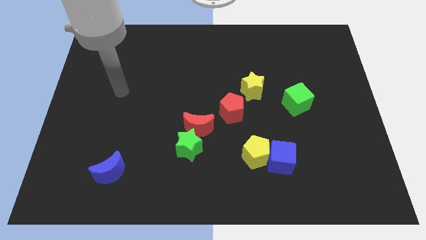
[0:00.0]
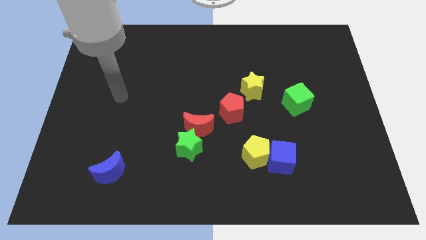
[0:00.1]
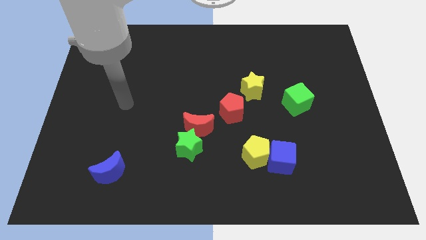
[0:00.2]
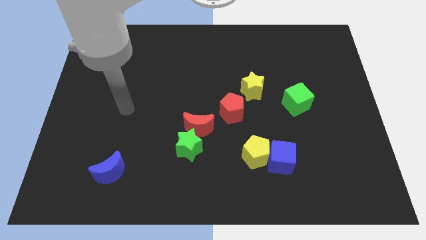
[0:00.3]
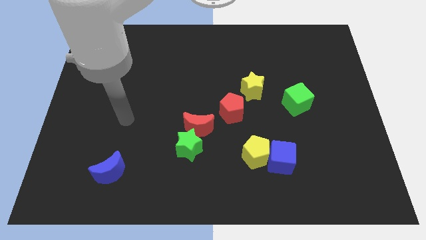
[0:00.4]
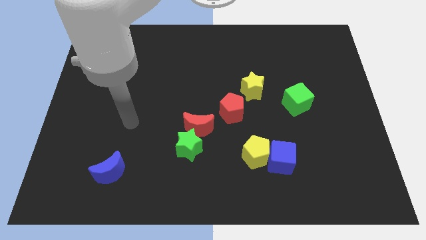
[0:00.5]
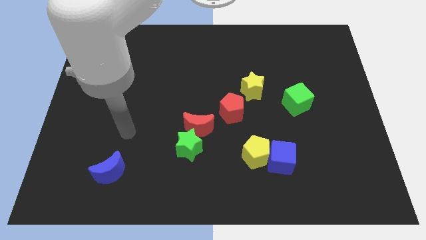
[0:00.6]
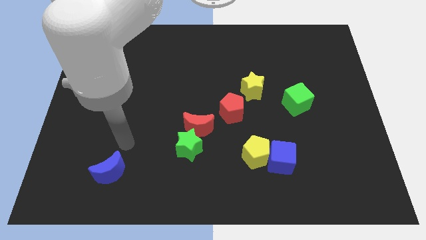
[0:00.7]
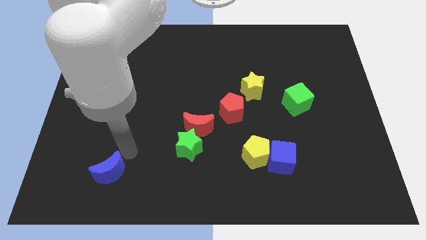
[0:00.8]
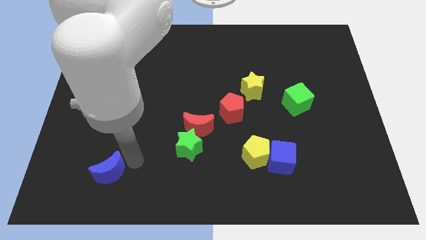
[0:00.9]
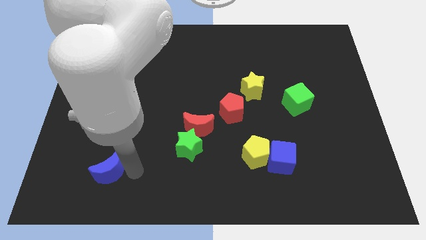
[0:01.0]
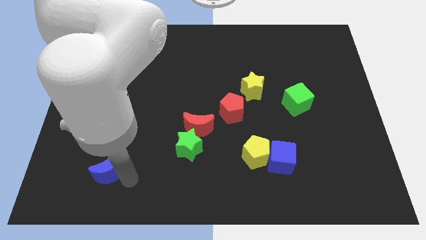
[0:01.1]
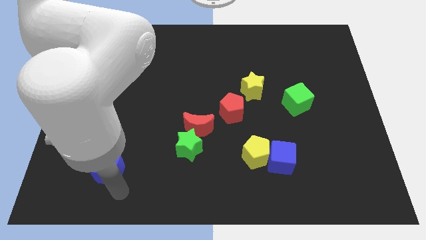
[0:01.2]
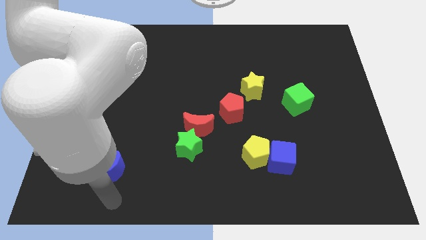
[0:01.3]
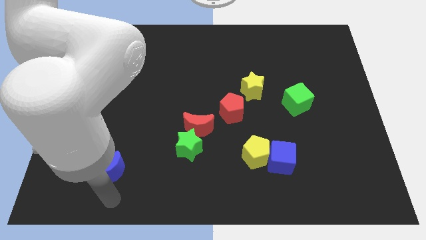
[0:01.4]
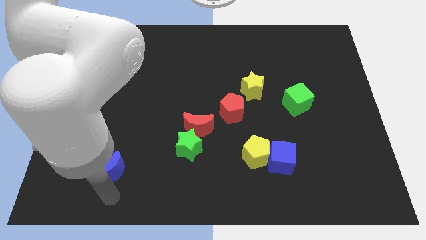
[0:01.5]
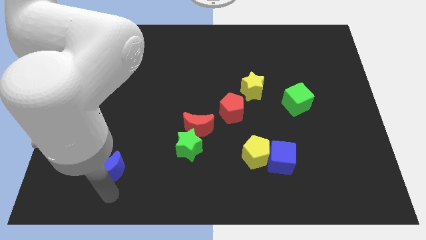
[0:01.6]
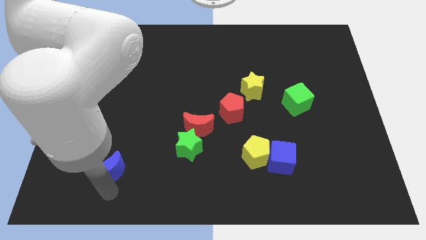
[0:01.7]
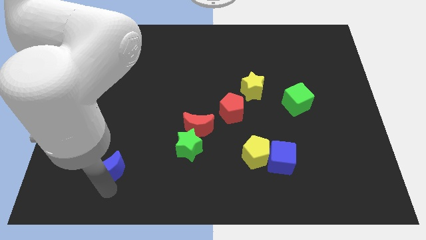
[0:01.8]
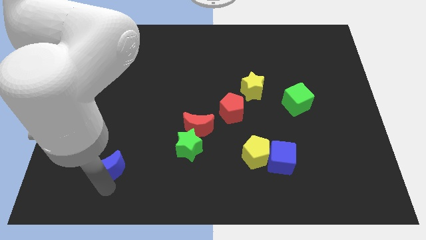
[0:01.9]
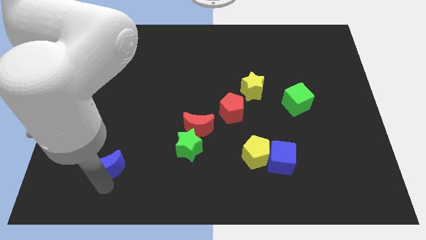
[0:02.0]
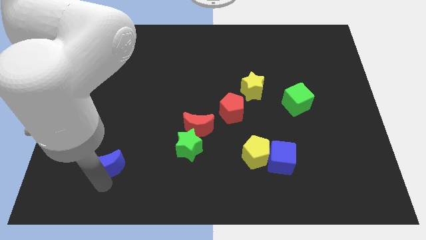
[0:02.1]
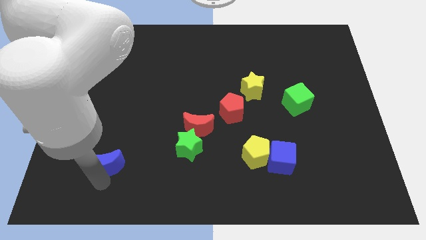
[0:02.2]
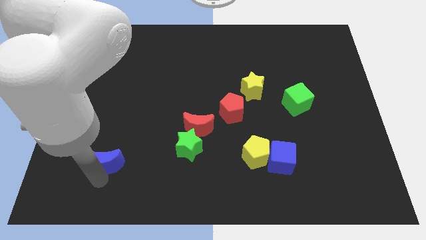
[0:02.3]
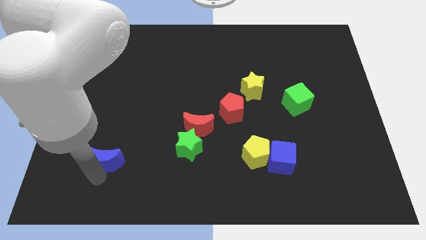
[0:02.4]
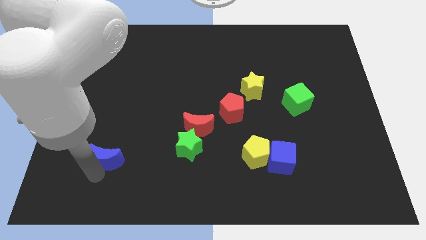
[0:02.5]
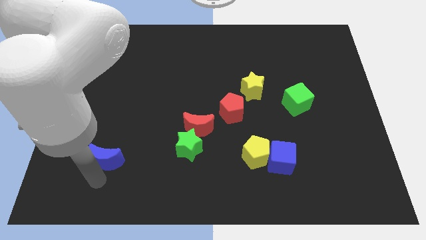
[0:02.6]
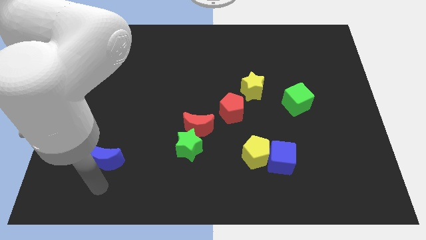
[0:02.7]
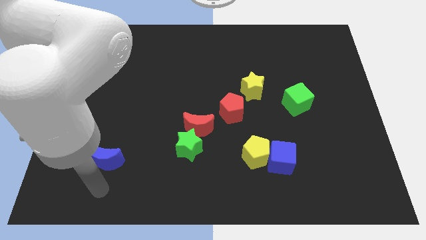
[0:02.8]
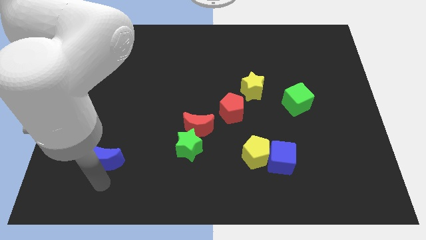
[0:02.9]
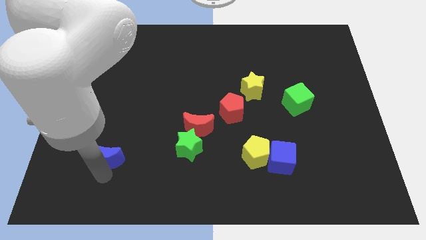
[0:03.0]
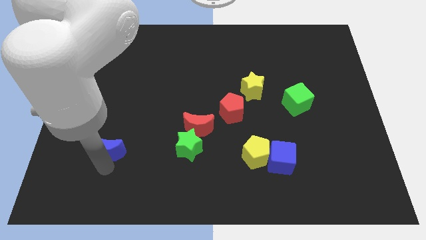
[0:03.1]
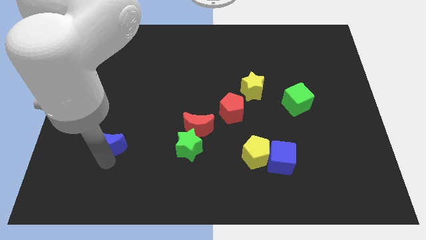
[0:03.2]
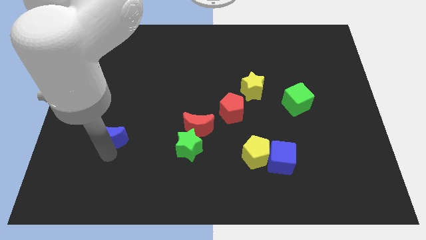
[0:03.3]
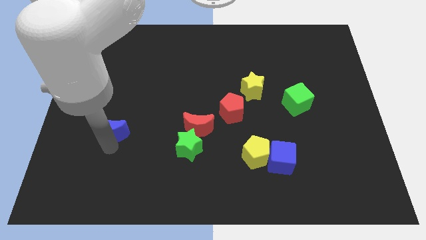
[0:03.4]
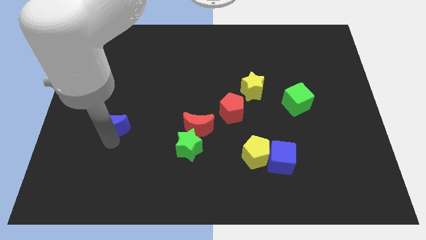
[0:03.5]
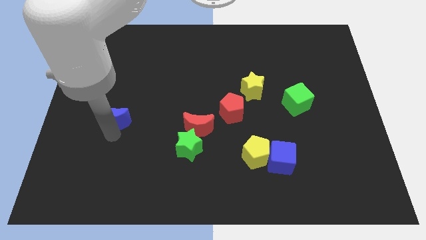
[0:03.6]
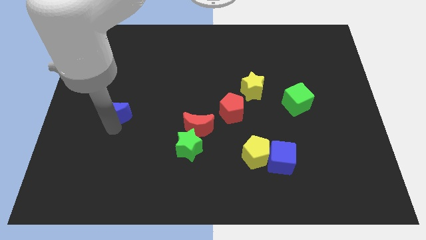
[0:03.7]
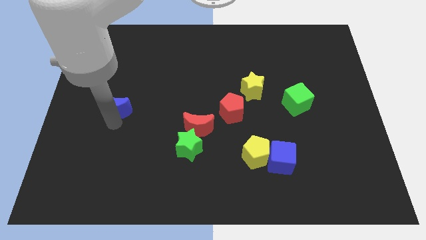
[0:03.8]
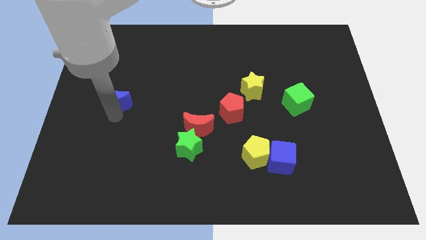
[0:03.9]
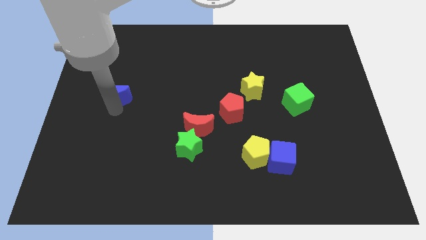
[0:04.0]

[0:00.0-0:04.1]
push the blue moon upwards

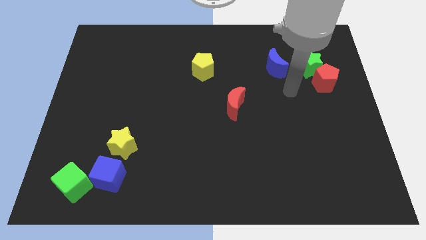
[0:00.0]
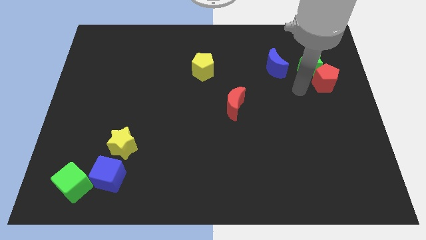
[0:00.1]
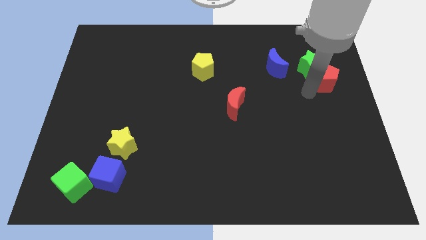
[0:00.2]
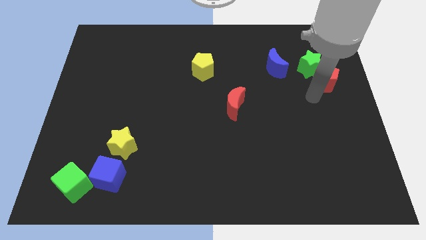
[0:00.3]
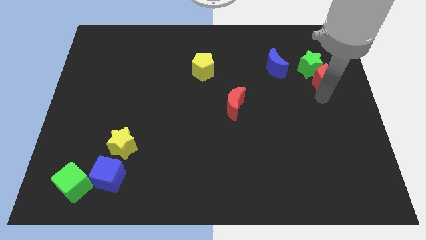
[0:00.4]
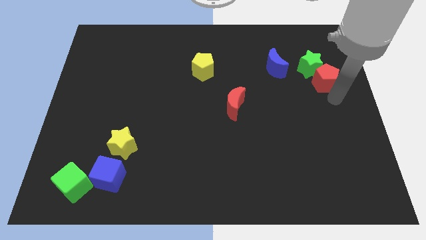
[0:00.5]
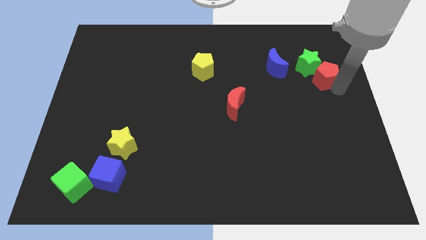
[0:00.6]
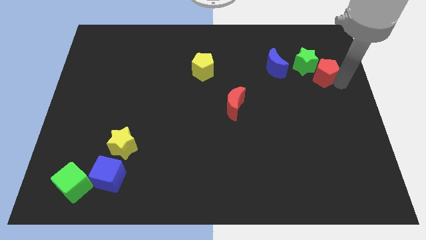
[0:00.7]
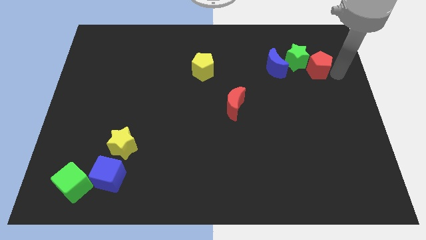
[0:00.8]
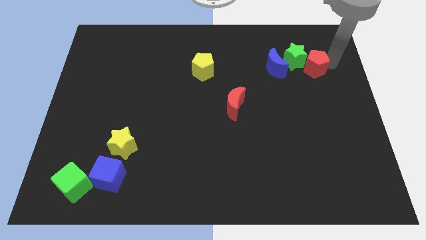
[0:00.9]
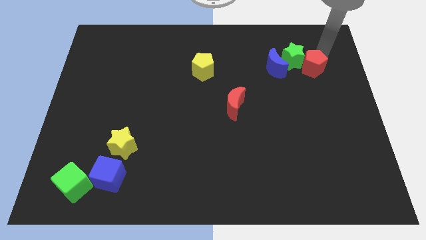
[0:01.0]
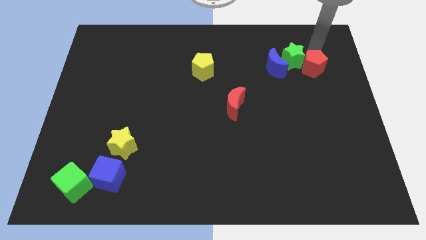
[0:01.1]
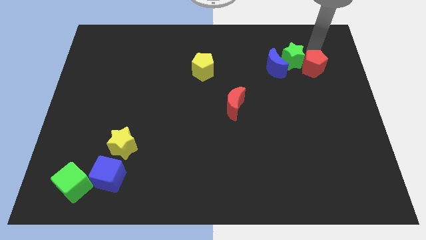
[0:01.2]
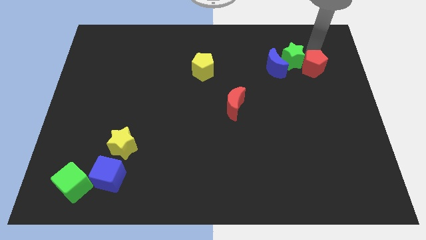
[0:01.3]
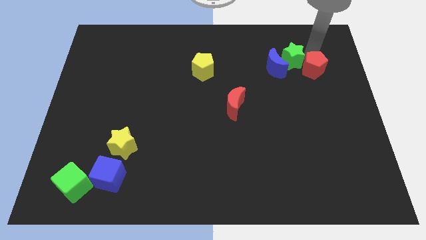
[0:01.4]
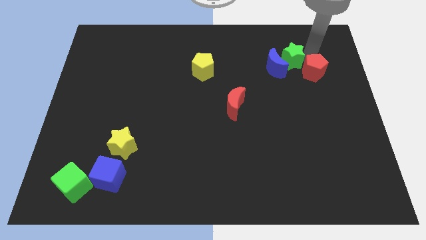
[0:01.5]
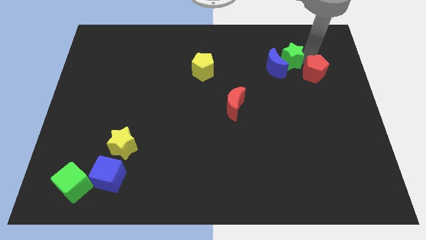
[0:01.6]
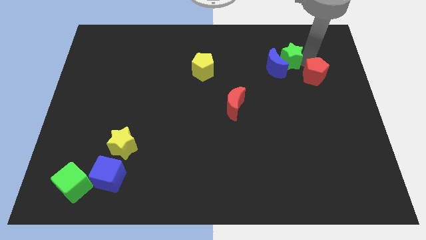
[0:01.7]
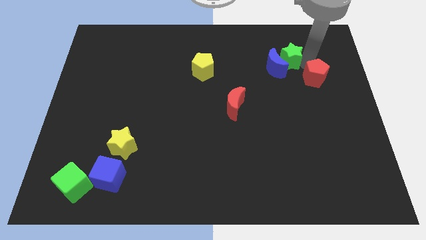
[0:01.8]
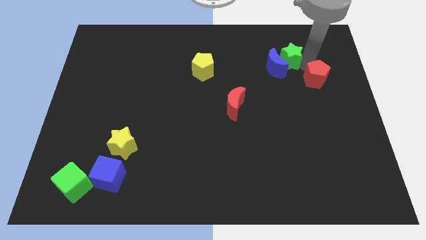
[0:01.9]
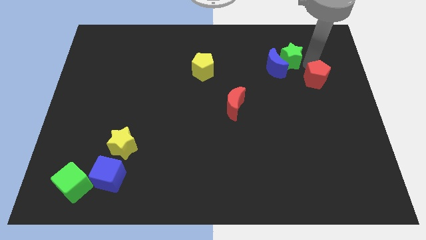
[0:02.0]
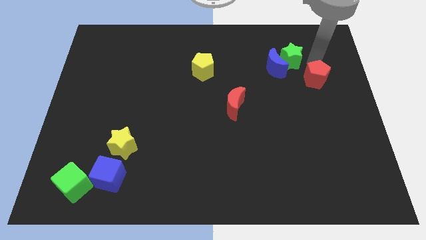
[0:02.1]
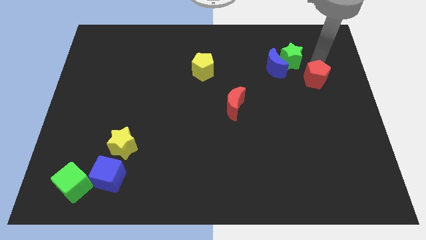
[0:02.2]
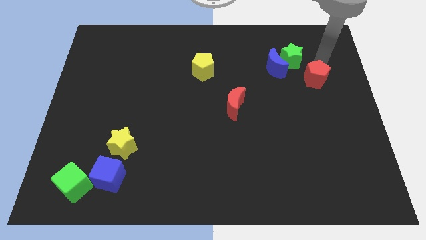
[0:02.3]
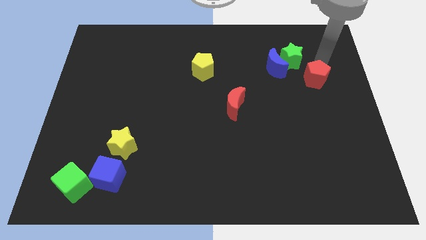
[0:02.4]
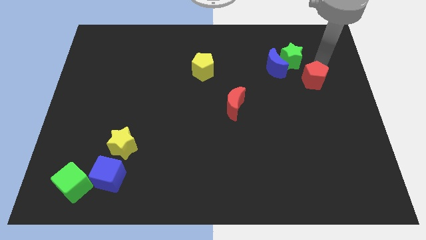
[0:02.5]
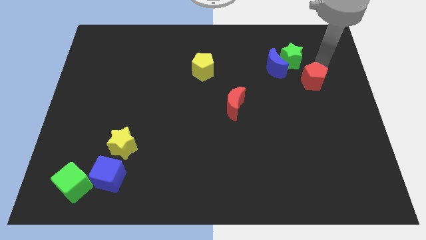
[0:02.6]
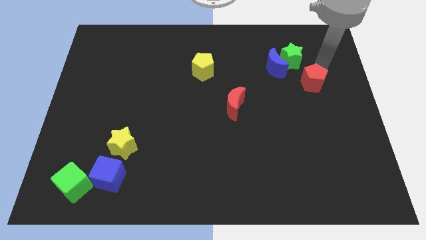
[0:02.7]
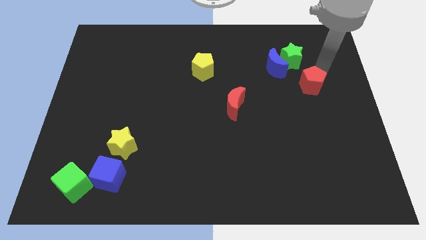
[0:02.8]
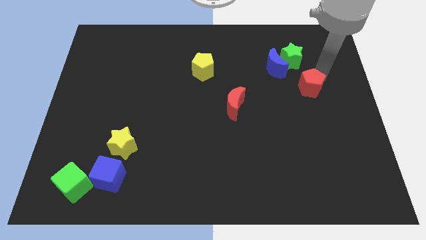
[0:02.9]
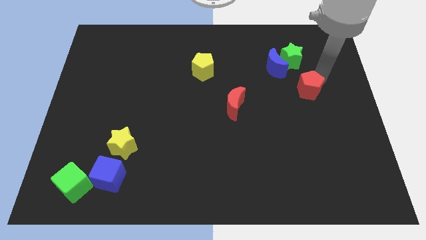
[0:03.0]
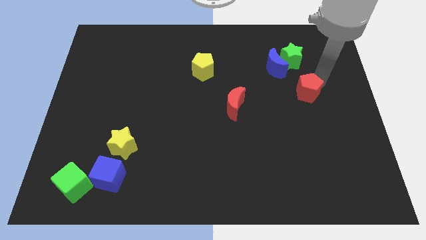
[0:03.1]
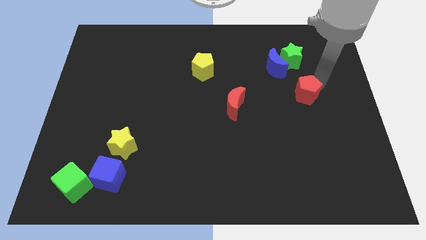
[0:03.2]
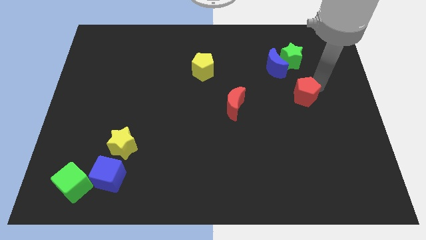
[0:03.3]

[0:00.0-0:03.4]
push the red pentagon diagonally downwards and to the left a little bit

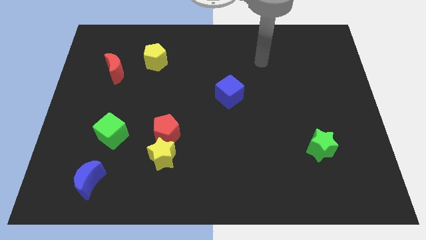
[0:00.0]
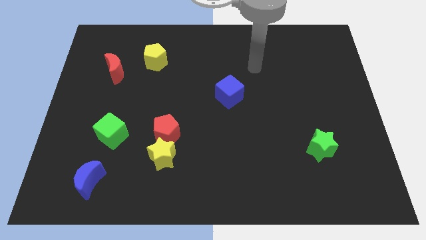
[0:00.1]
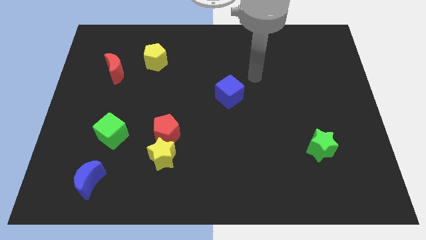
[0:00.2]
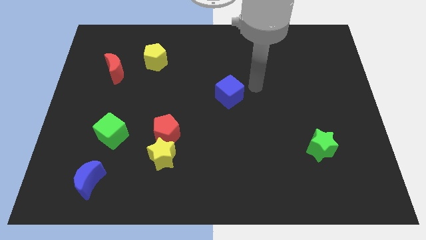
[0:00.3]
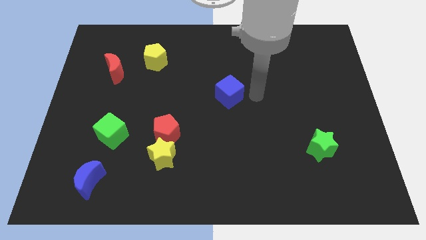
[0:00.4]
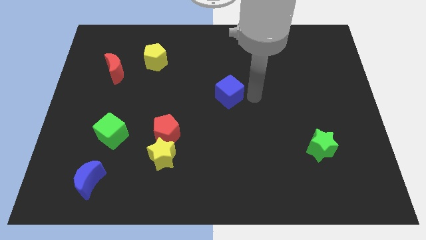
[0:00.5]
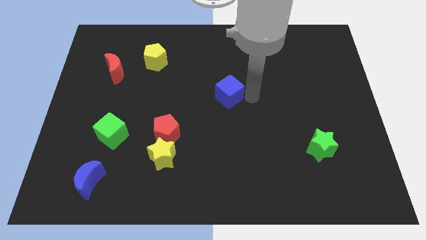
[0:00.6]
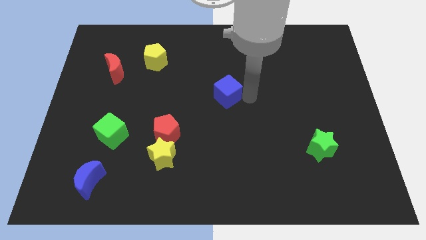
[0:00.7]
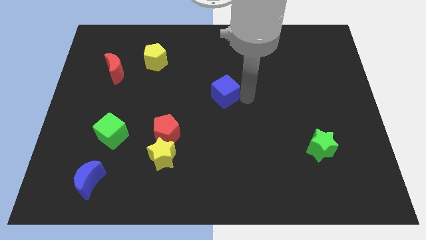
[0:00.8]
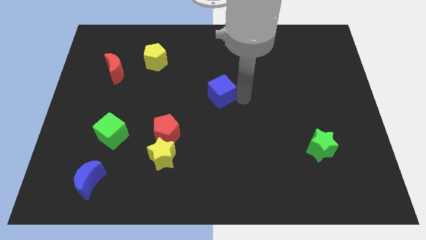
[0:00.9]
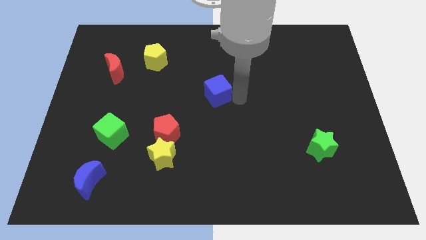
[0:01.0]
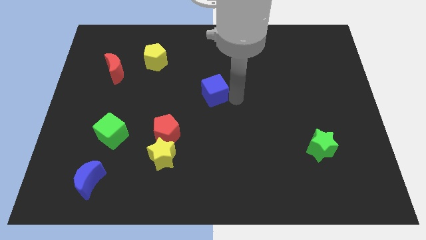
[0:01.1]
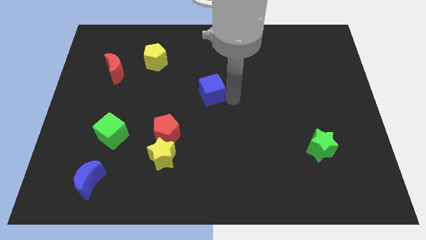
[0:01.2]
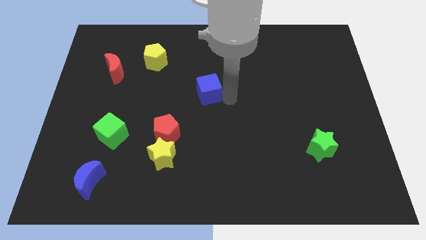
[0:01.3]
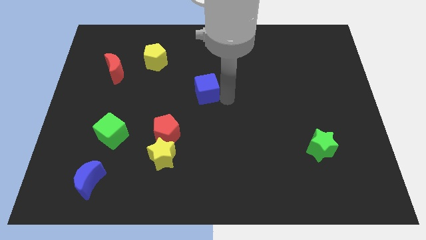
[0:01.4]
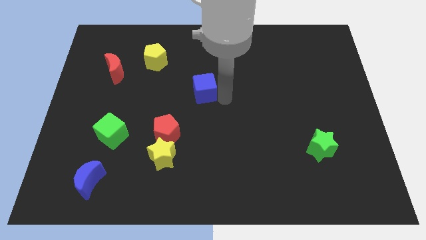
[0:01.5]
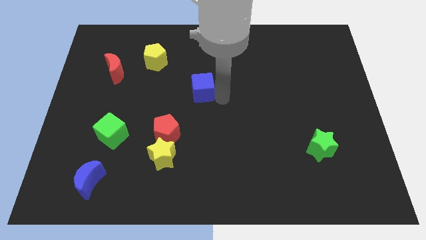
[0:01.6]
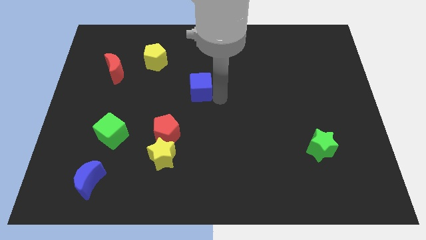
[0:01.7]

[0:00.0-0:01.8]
push the blue cube a little to the left
